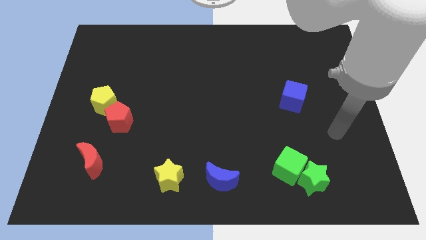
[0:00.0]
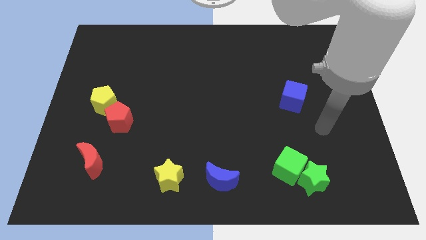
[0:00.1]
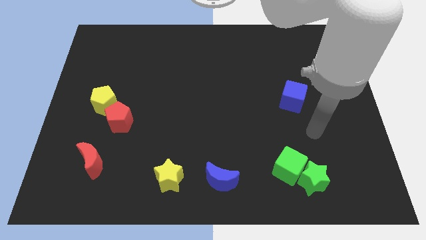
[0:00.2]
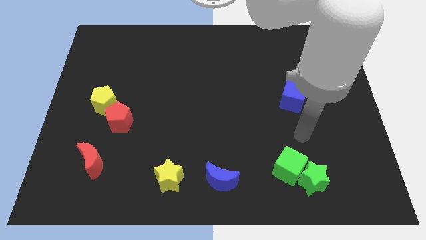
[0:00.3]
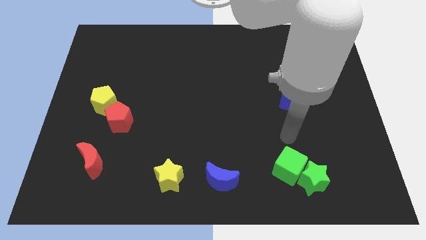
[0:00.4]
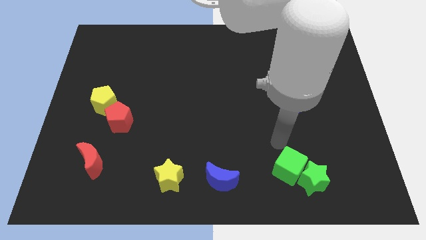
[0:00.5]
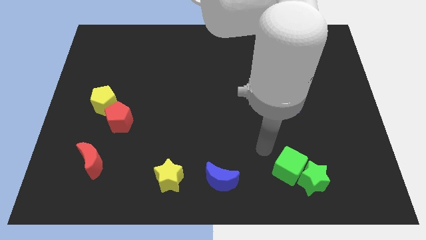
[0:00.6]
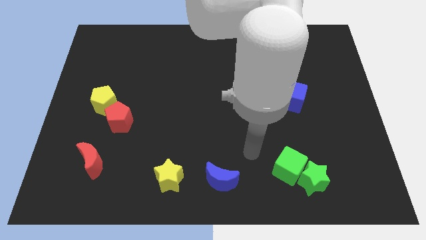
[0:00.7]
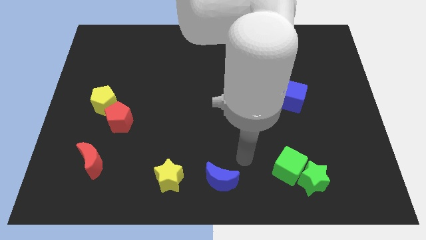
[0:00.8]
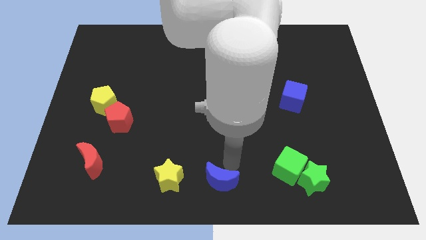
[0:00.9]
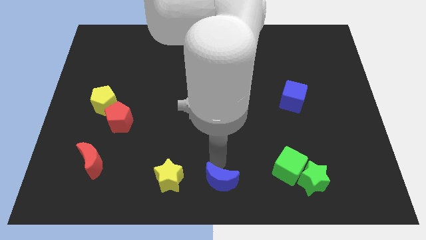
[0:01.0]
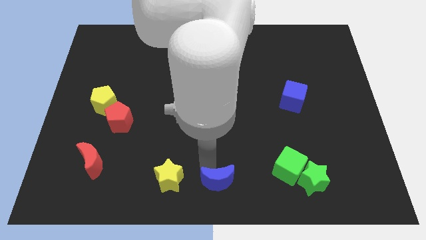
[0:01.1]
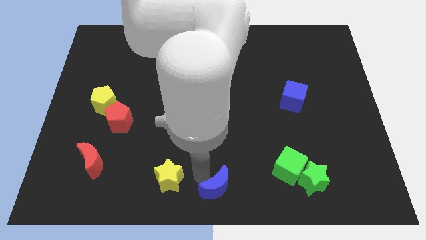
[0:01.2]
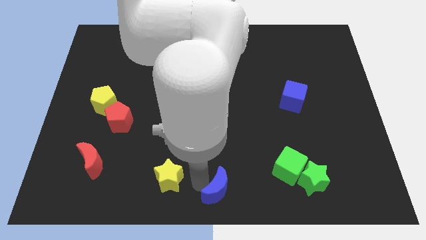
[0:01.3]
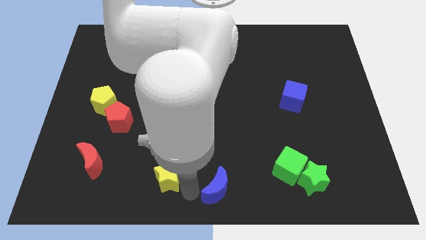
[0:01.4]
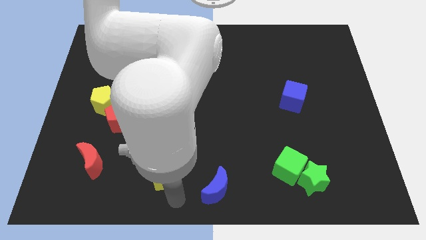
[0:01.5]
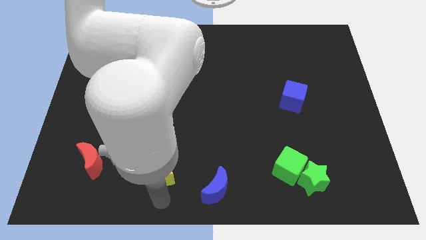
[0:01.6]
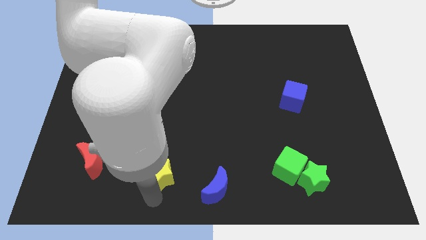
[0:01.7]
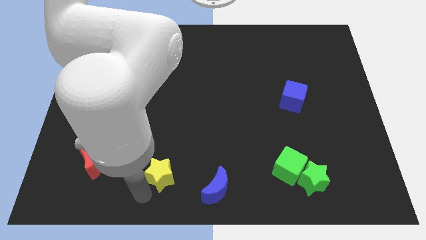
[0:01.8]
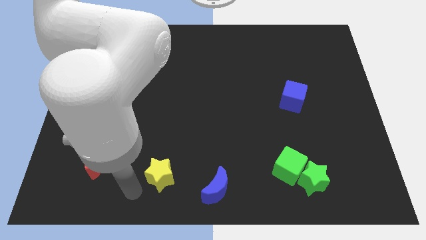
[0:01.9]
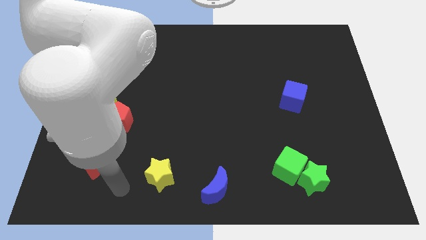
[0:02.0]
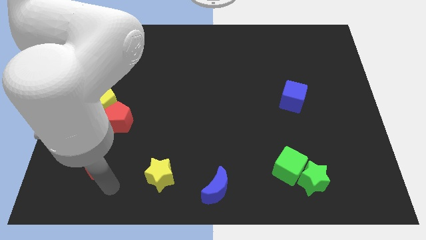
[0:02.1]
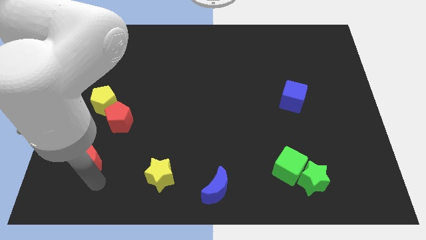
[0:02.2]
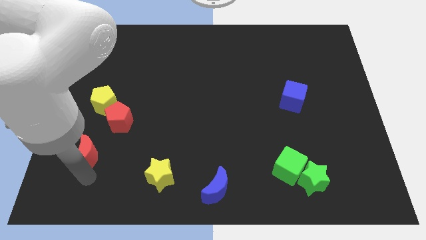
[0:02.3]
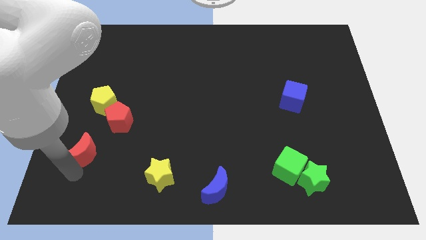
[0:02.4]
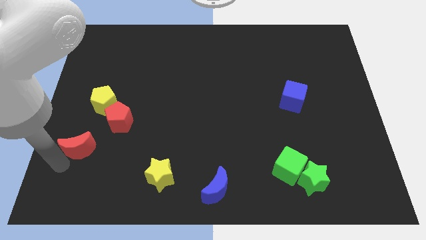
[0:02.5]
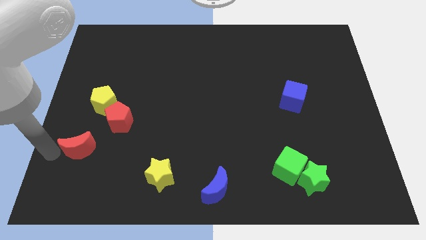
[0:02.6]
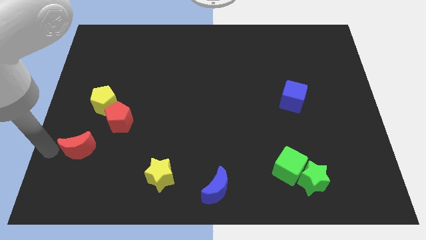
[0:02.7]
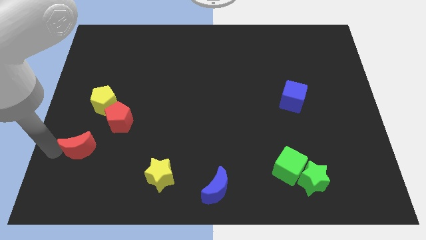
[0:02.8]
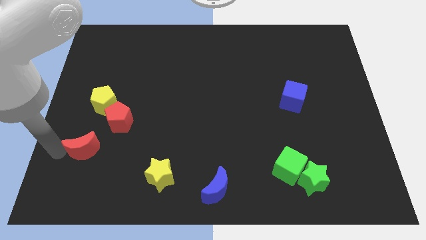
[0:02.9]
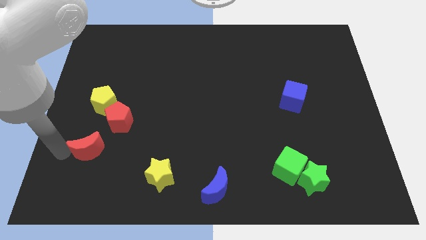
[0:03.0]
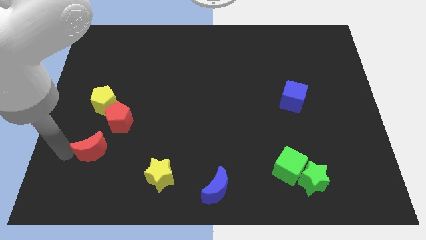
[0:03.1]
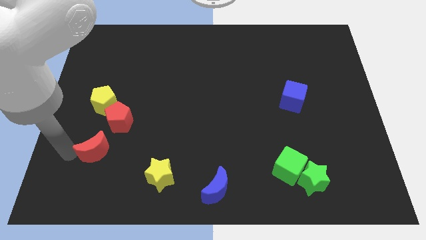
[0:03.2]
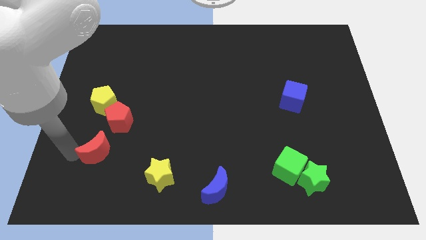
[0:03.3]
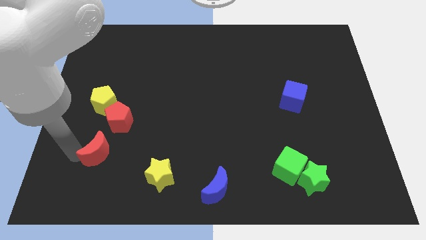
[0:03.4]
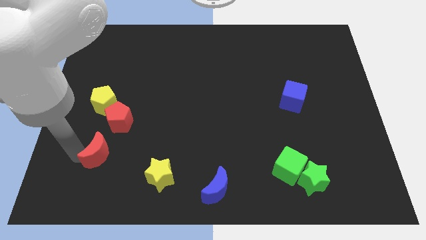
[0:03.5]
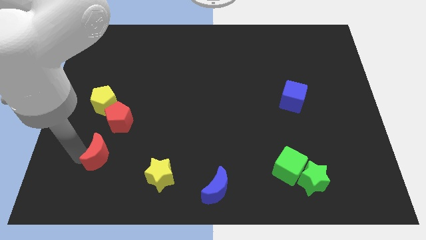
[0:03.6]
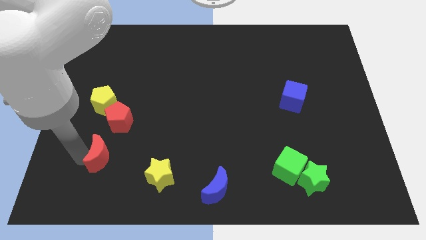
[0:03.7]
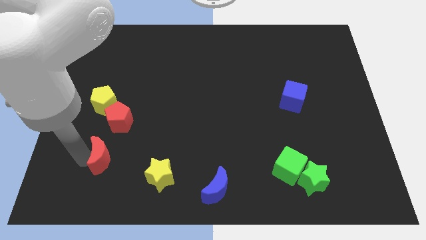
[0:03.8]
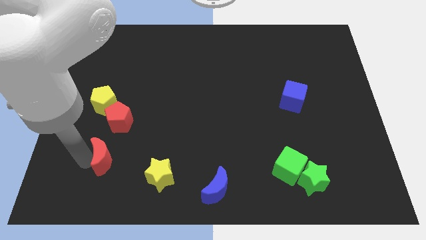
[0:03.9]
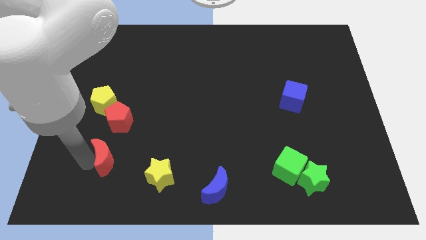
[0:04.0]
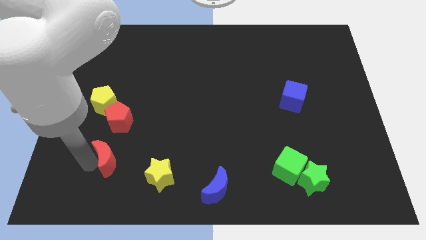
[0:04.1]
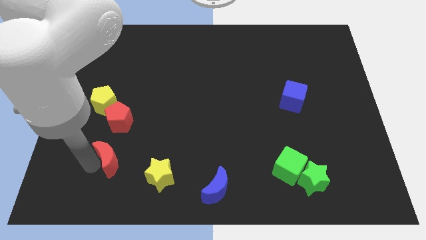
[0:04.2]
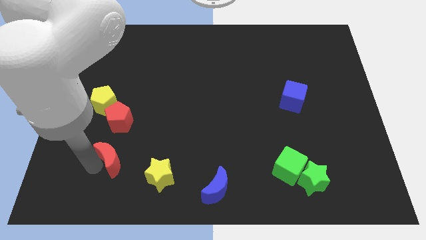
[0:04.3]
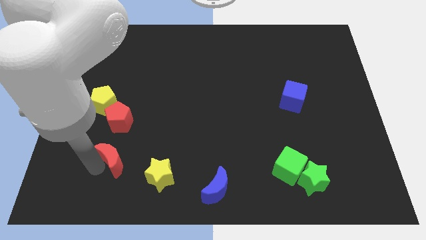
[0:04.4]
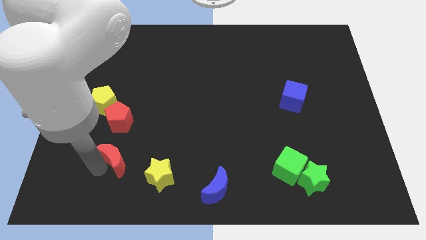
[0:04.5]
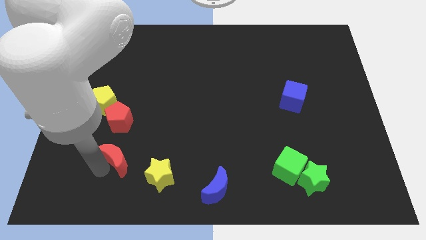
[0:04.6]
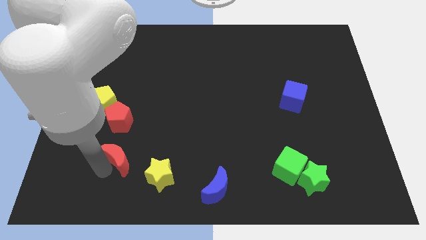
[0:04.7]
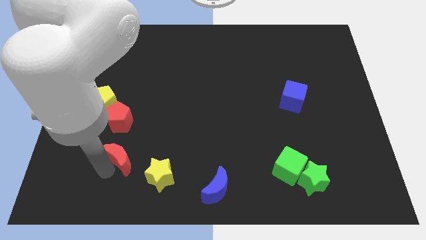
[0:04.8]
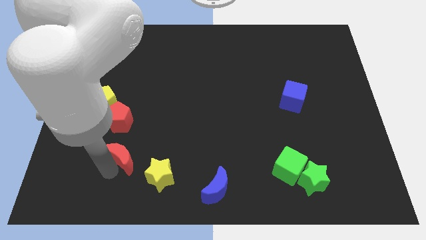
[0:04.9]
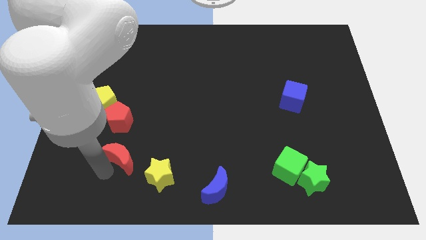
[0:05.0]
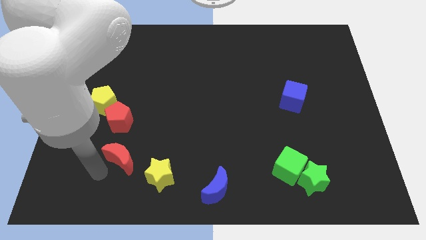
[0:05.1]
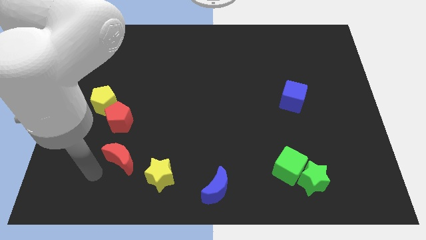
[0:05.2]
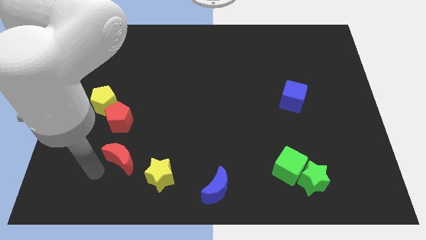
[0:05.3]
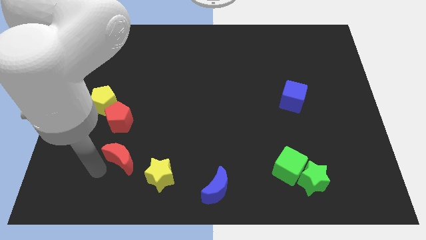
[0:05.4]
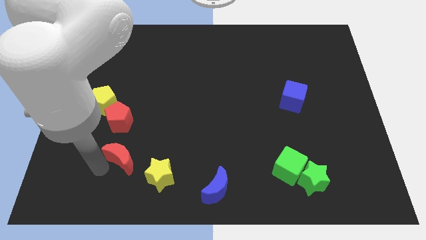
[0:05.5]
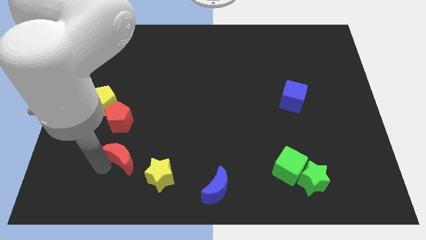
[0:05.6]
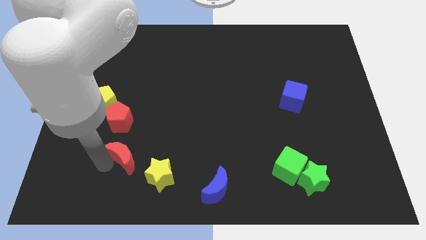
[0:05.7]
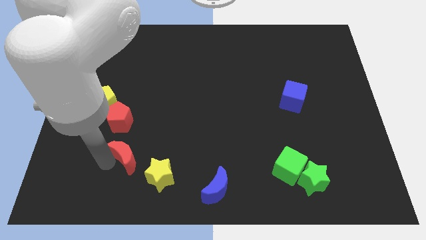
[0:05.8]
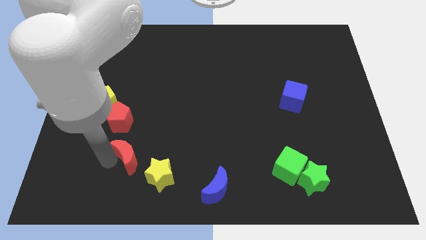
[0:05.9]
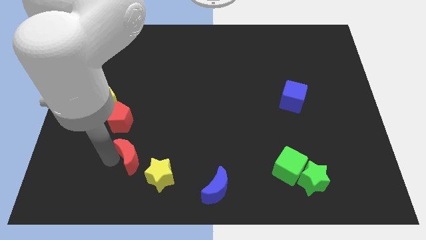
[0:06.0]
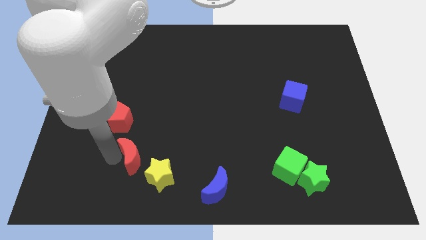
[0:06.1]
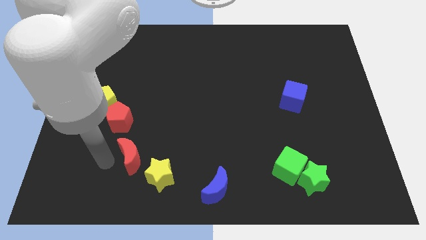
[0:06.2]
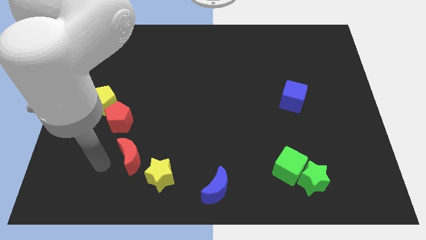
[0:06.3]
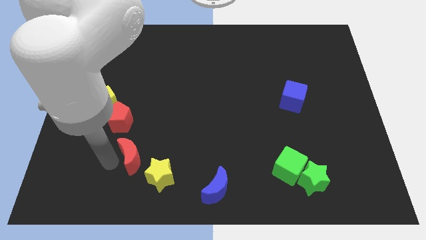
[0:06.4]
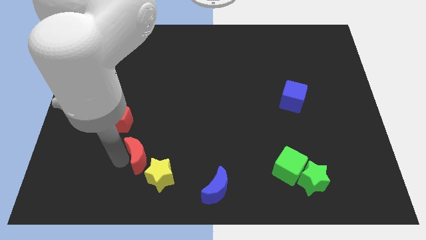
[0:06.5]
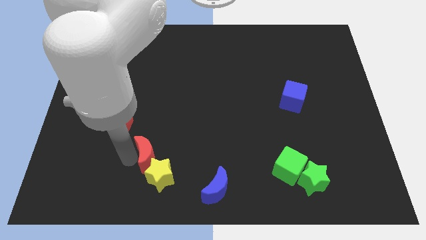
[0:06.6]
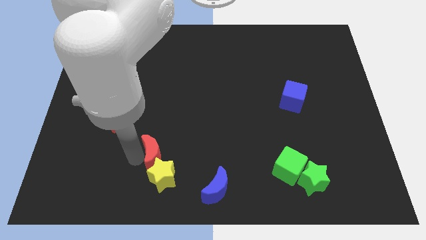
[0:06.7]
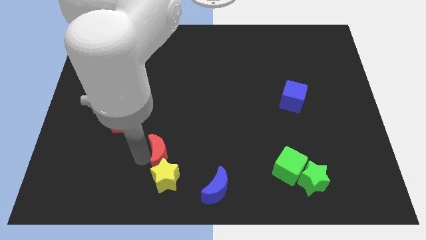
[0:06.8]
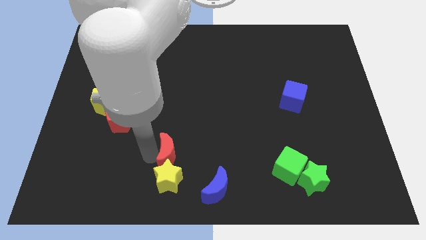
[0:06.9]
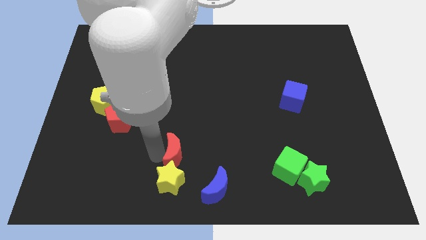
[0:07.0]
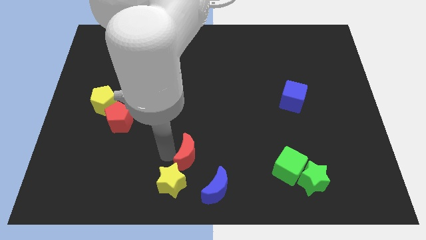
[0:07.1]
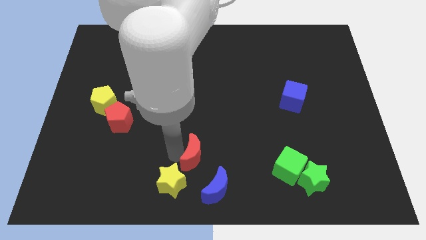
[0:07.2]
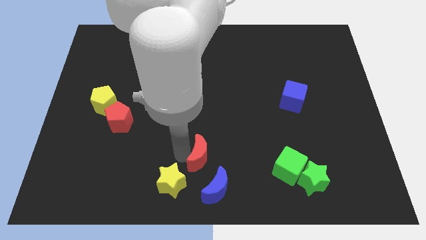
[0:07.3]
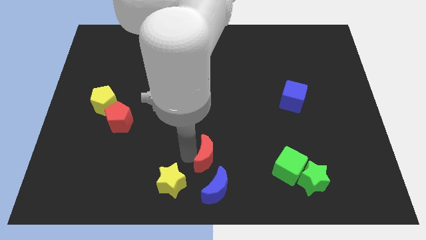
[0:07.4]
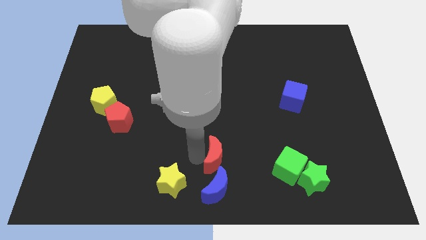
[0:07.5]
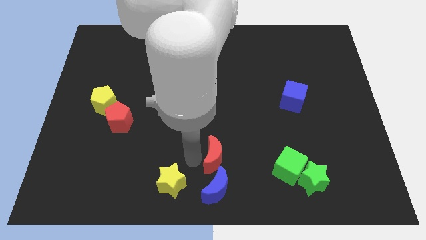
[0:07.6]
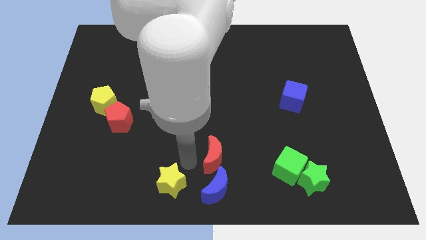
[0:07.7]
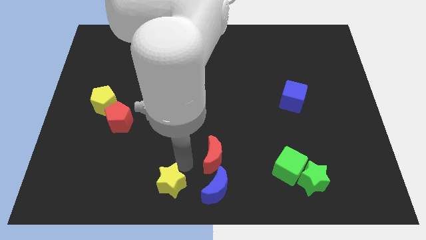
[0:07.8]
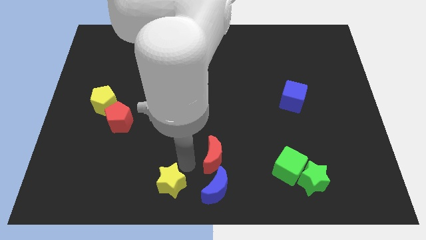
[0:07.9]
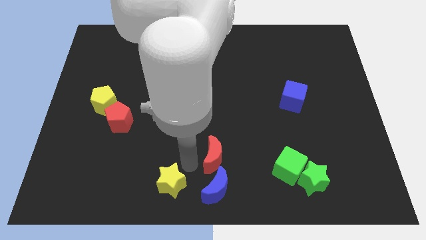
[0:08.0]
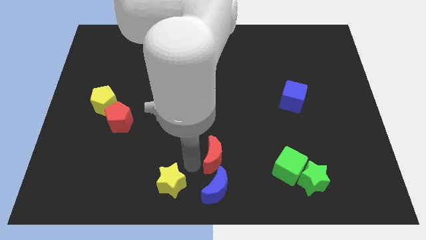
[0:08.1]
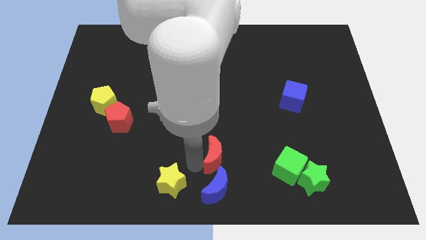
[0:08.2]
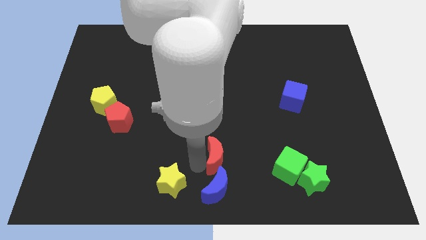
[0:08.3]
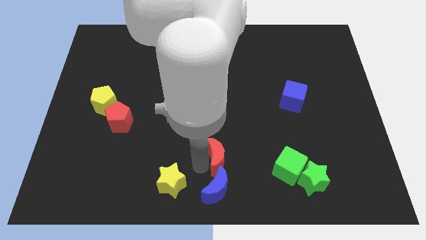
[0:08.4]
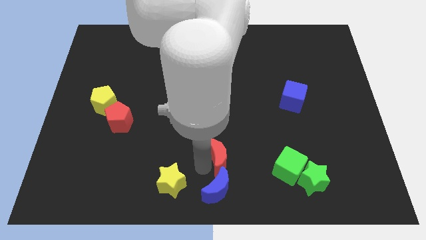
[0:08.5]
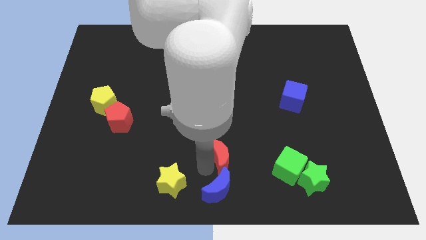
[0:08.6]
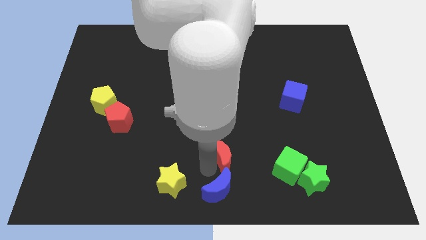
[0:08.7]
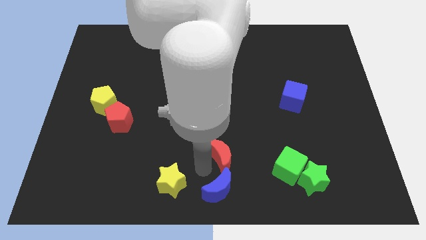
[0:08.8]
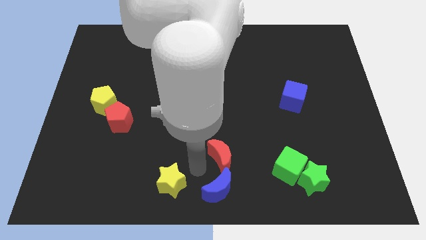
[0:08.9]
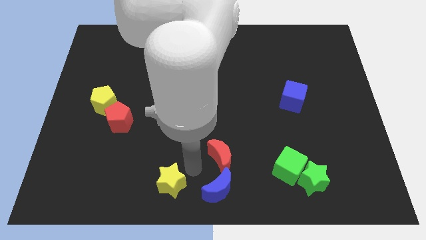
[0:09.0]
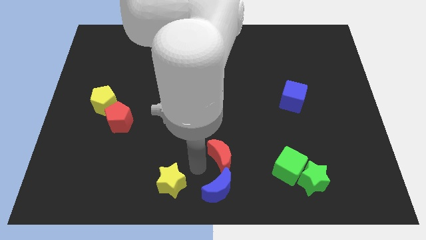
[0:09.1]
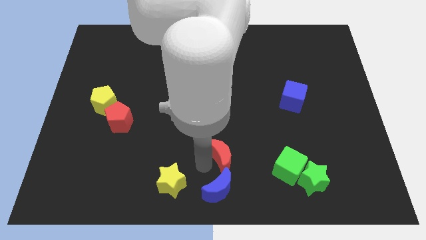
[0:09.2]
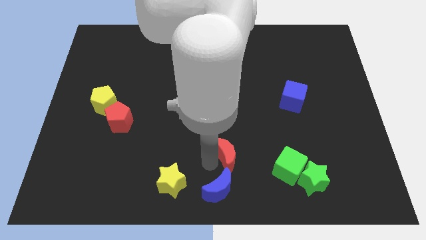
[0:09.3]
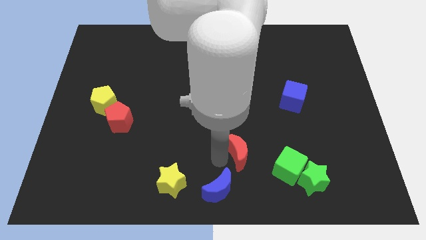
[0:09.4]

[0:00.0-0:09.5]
slide the red moon to the top left side of the green cube
